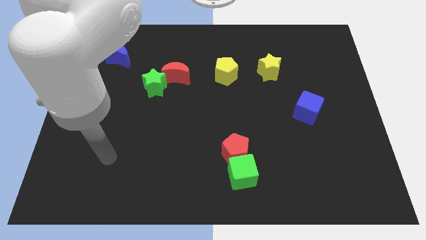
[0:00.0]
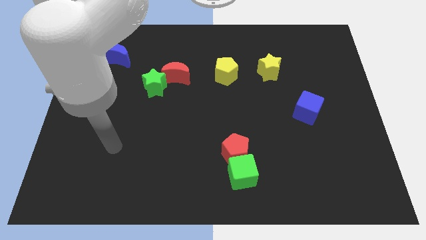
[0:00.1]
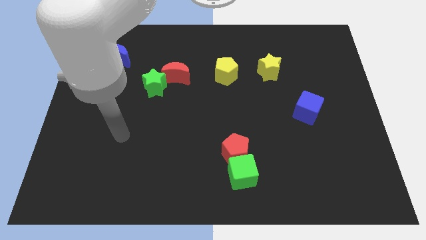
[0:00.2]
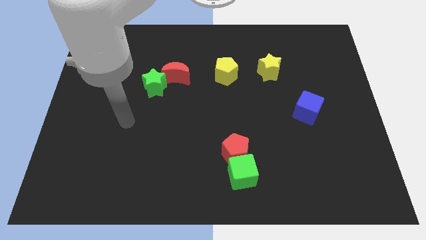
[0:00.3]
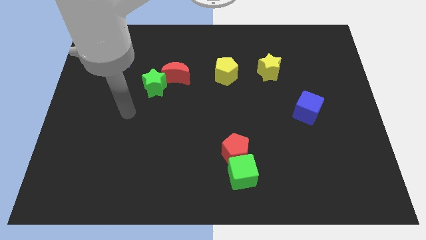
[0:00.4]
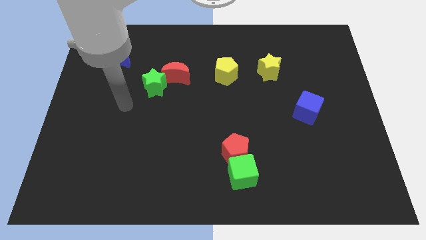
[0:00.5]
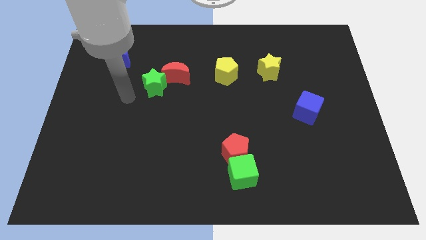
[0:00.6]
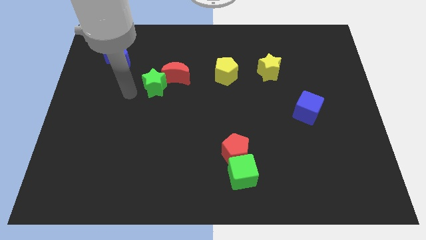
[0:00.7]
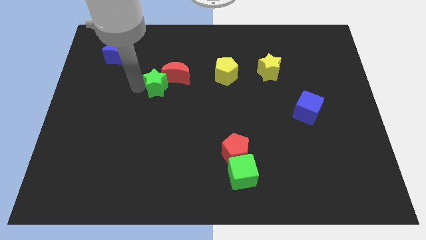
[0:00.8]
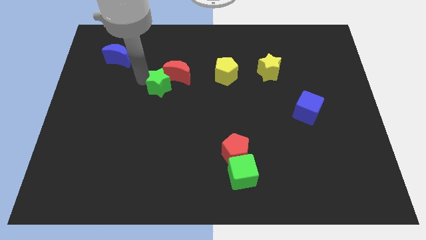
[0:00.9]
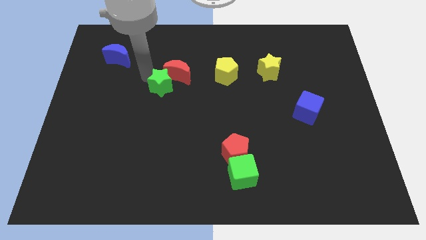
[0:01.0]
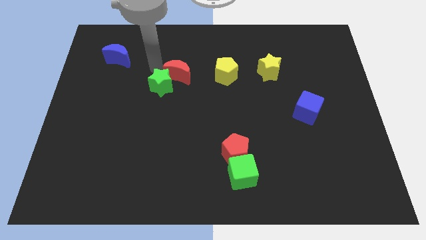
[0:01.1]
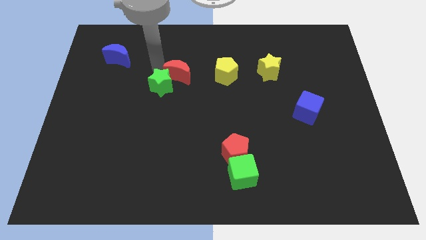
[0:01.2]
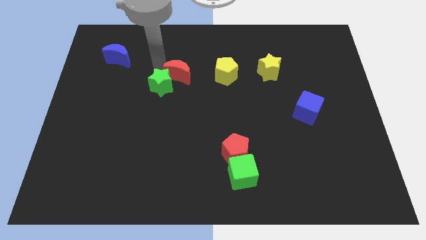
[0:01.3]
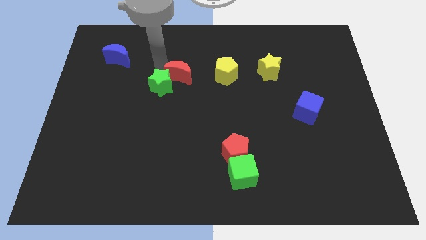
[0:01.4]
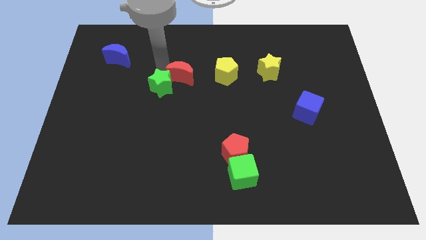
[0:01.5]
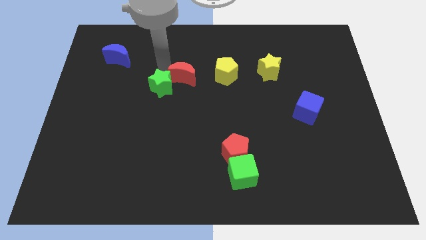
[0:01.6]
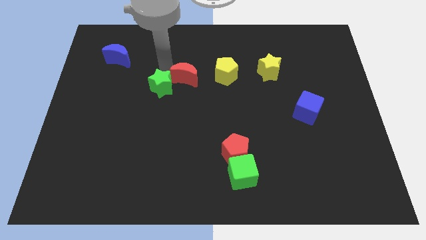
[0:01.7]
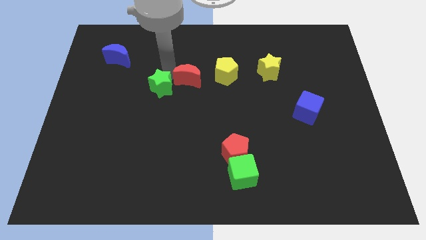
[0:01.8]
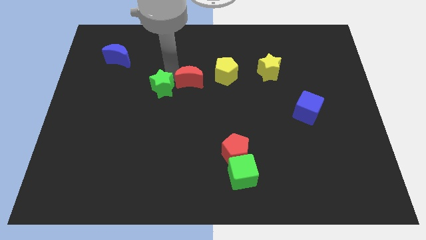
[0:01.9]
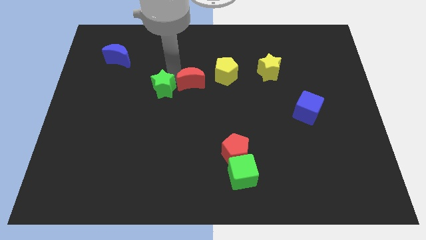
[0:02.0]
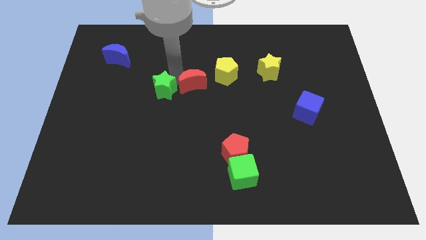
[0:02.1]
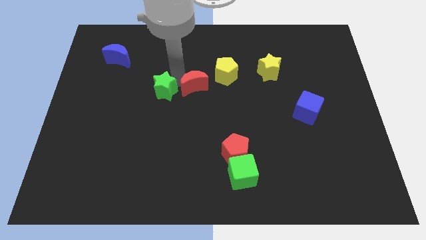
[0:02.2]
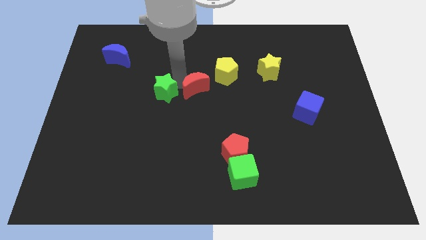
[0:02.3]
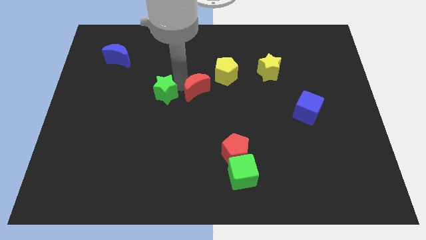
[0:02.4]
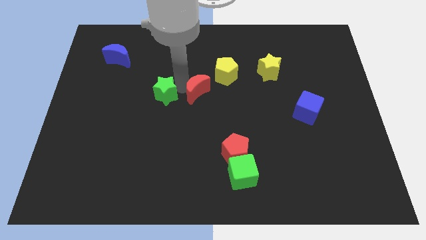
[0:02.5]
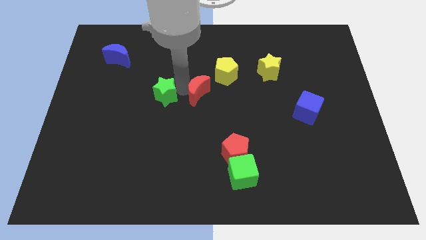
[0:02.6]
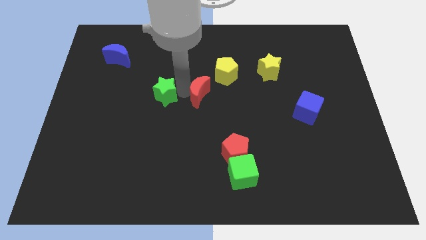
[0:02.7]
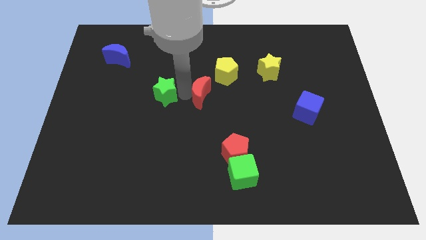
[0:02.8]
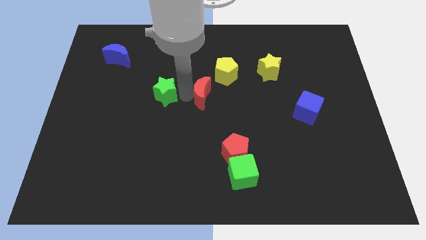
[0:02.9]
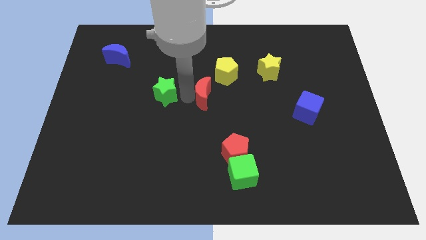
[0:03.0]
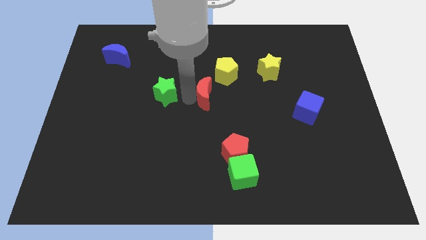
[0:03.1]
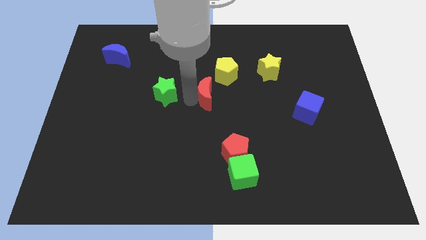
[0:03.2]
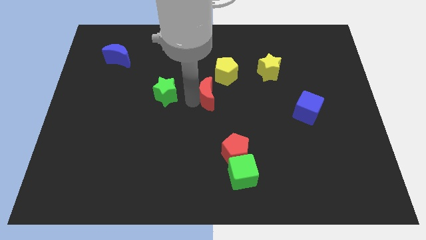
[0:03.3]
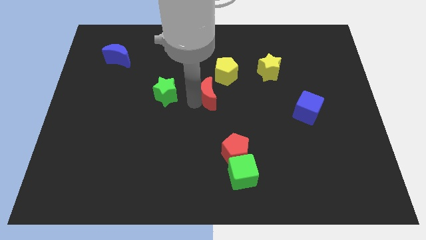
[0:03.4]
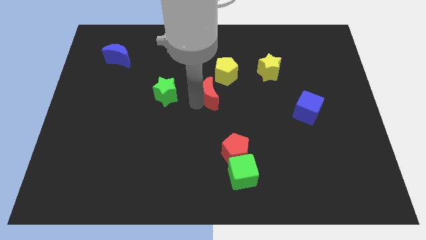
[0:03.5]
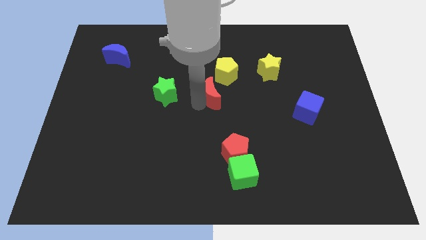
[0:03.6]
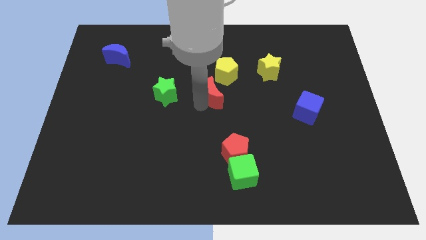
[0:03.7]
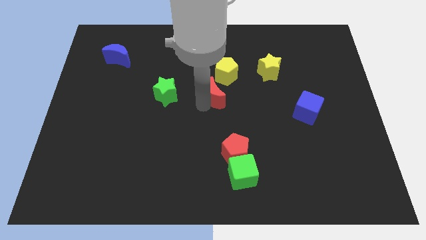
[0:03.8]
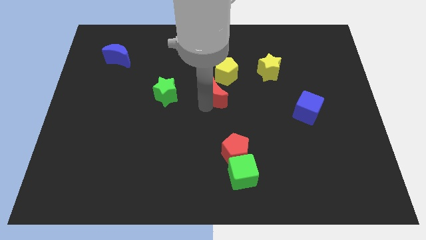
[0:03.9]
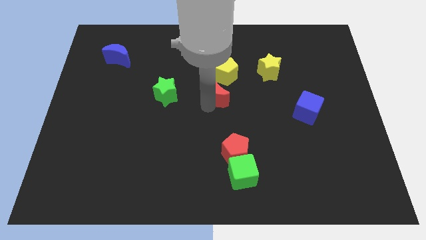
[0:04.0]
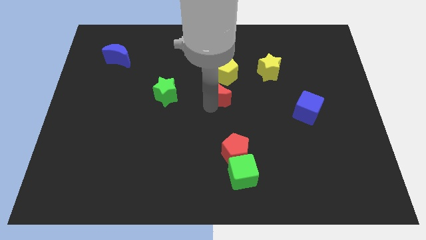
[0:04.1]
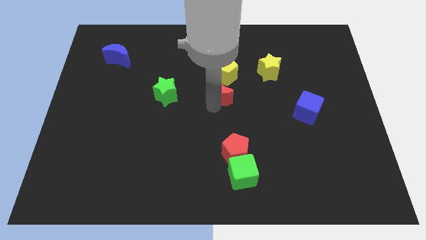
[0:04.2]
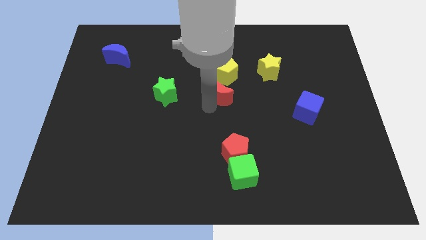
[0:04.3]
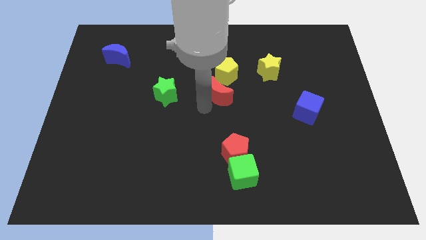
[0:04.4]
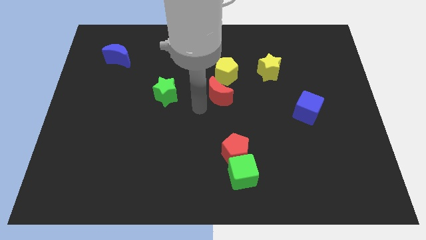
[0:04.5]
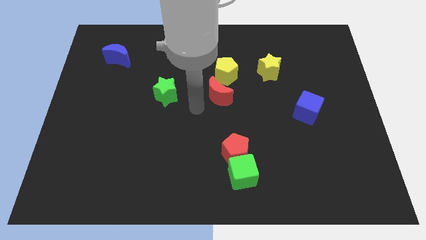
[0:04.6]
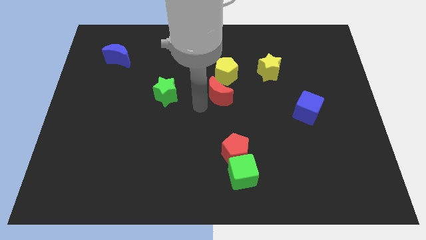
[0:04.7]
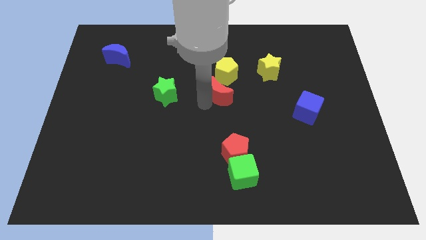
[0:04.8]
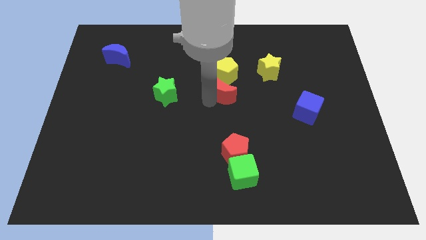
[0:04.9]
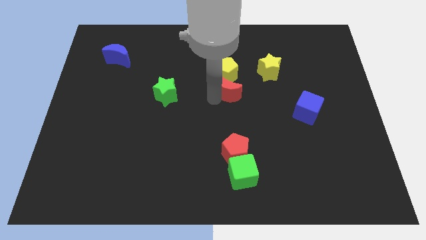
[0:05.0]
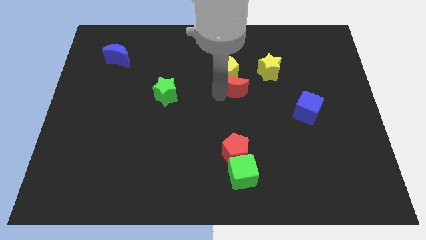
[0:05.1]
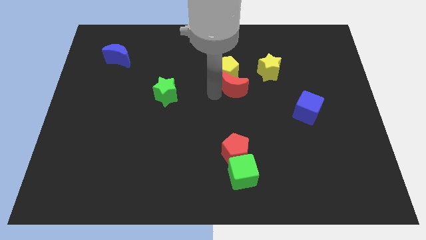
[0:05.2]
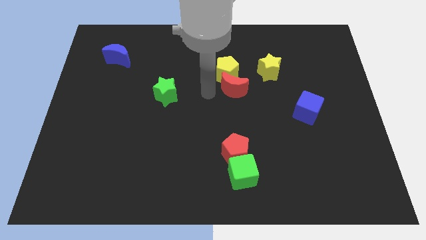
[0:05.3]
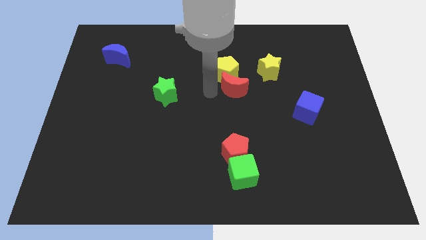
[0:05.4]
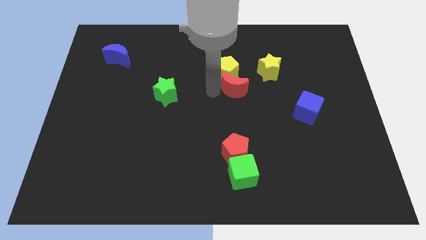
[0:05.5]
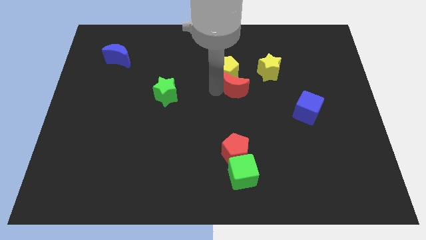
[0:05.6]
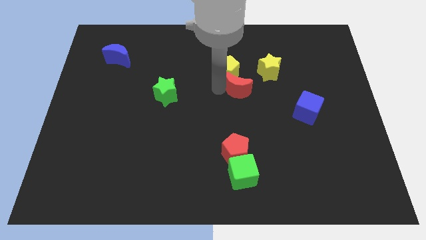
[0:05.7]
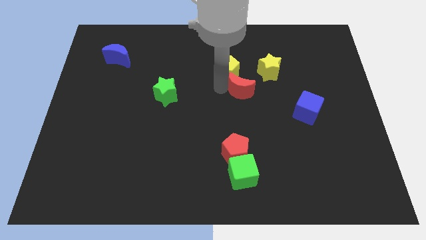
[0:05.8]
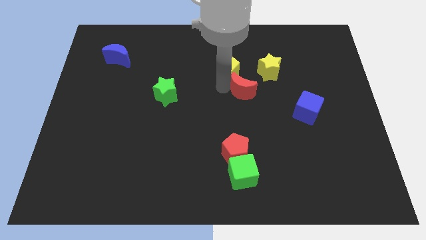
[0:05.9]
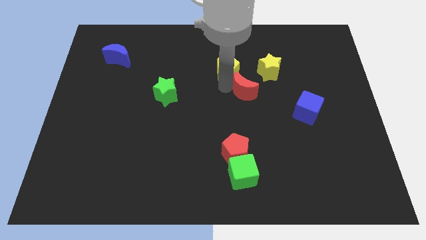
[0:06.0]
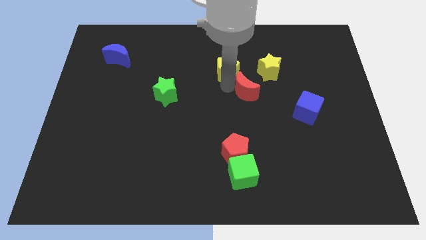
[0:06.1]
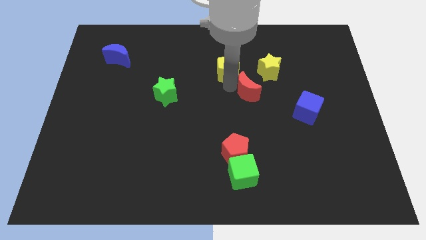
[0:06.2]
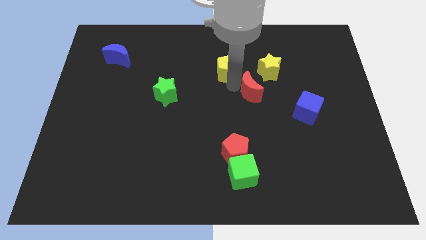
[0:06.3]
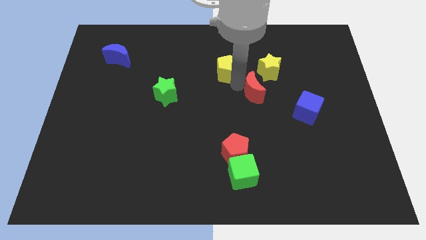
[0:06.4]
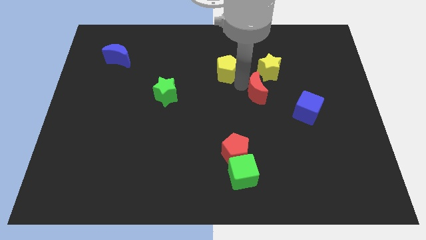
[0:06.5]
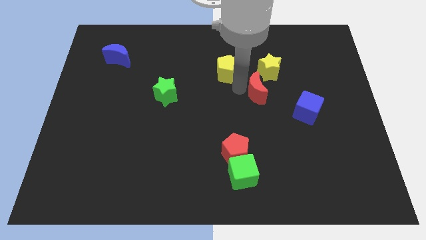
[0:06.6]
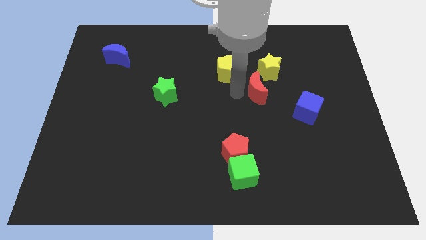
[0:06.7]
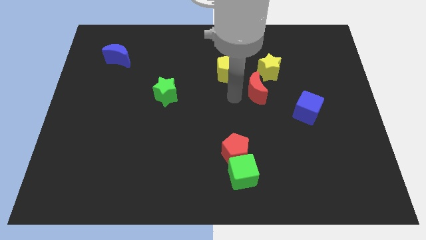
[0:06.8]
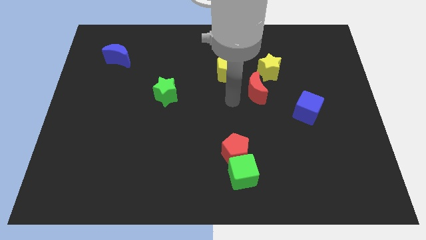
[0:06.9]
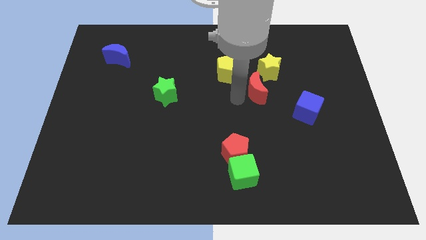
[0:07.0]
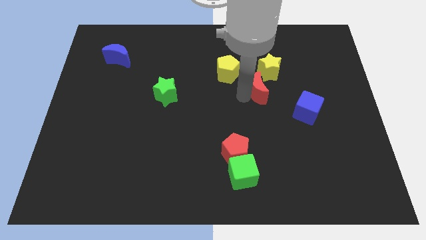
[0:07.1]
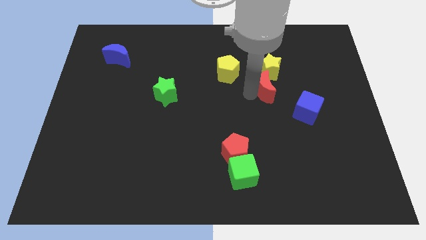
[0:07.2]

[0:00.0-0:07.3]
slide the red moon right

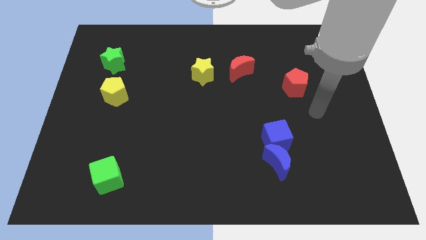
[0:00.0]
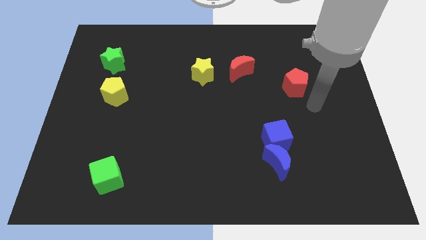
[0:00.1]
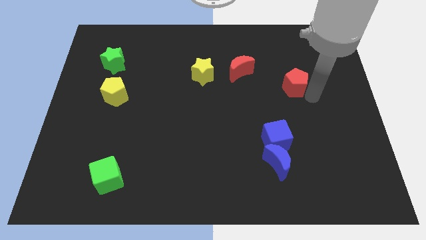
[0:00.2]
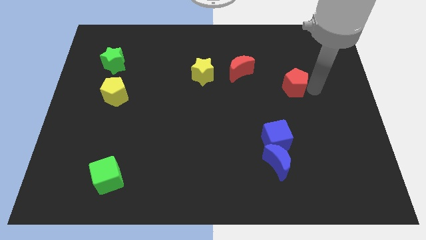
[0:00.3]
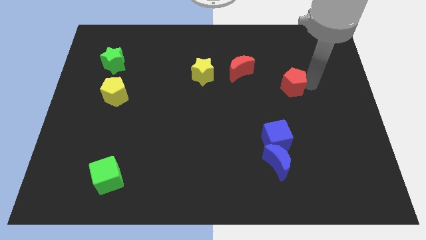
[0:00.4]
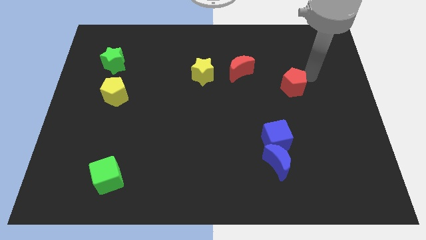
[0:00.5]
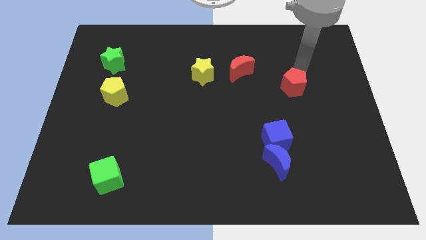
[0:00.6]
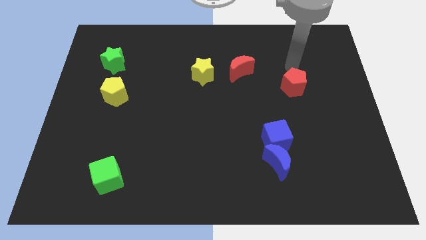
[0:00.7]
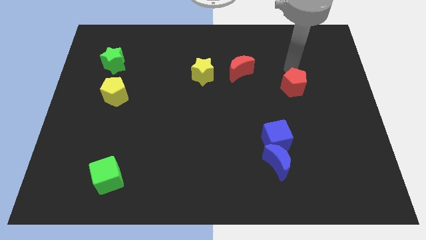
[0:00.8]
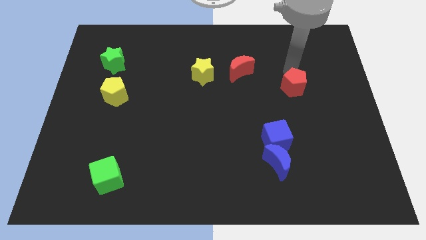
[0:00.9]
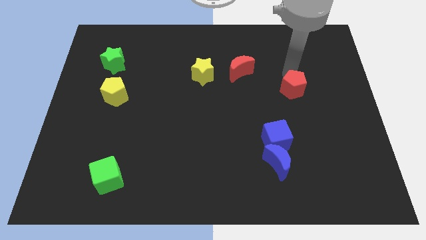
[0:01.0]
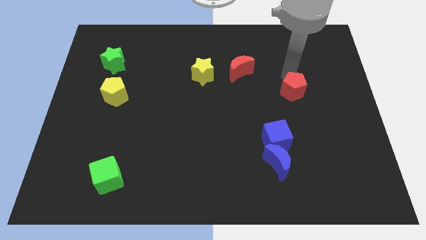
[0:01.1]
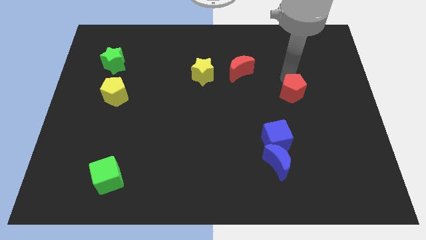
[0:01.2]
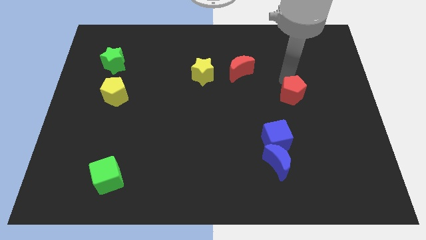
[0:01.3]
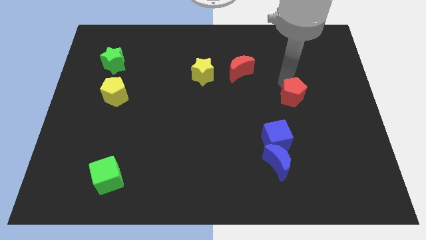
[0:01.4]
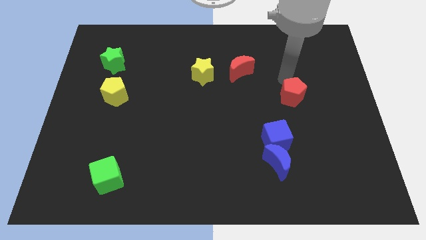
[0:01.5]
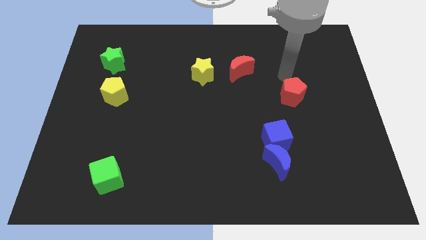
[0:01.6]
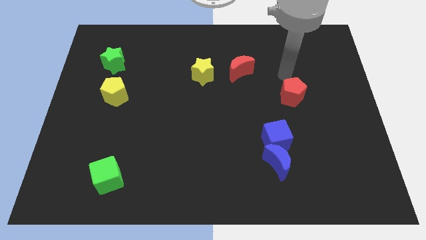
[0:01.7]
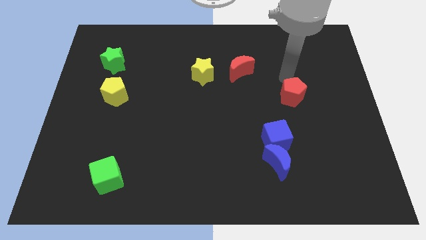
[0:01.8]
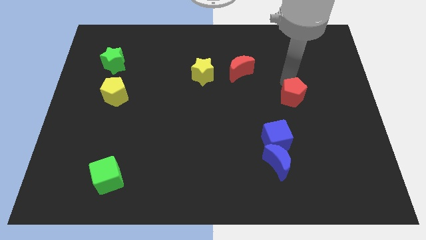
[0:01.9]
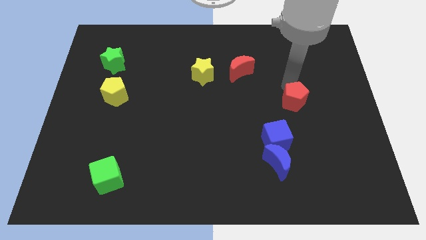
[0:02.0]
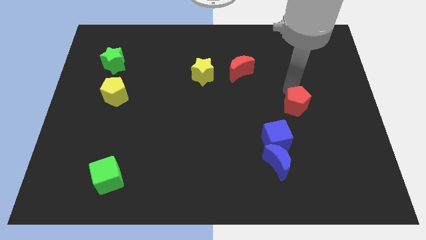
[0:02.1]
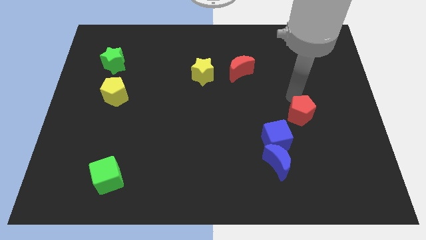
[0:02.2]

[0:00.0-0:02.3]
slightly slide the red pentagon down
